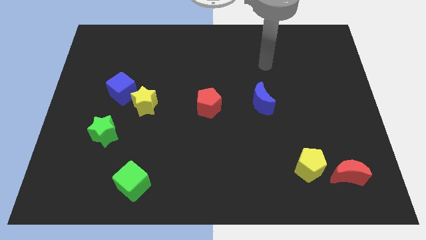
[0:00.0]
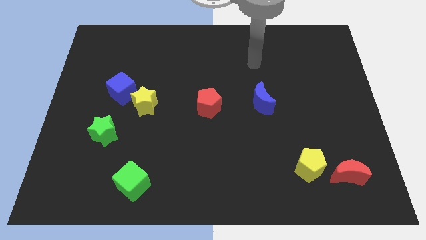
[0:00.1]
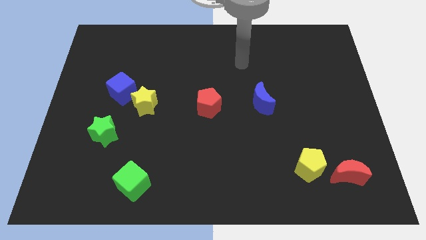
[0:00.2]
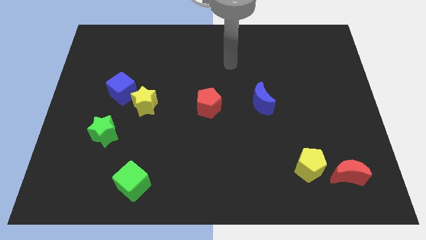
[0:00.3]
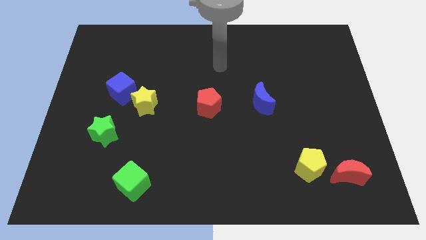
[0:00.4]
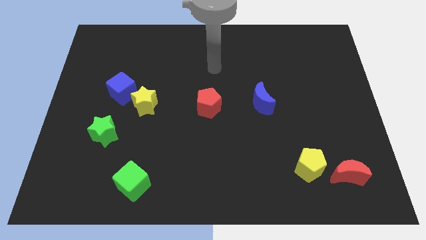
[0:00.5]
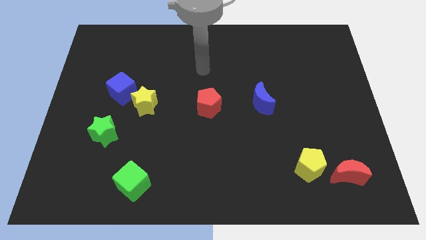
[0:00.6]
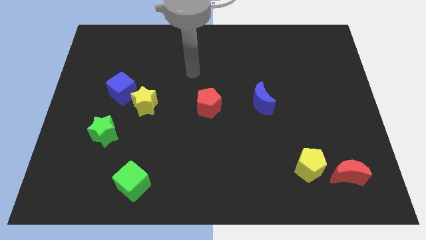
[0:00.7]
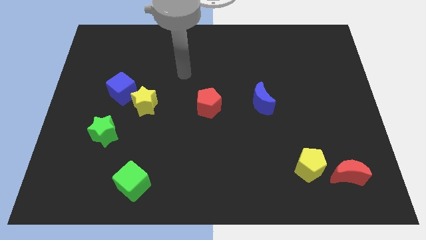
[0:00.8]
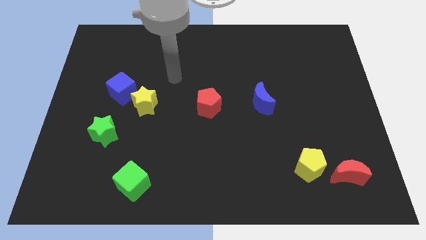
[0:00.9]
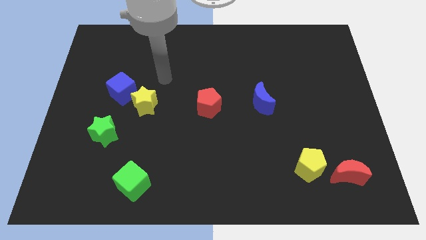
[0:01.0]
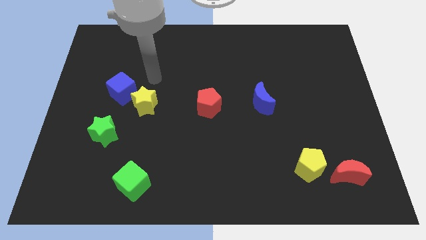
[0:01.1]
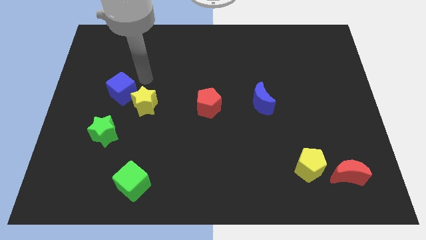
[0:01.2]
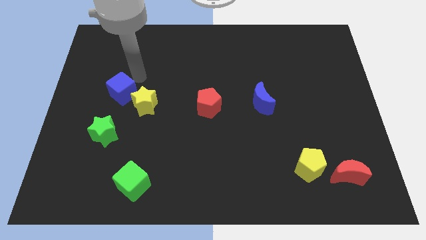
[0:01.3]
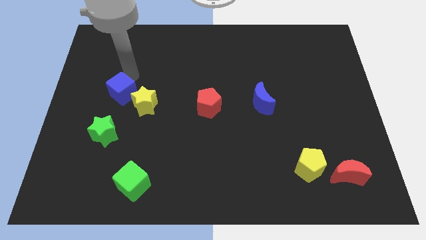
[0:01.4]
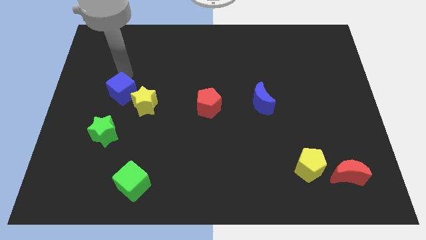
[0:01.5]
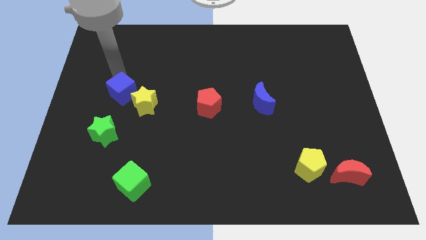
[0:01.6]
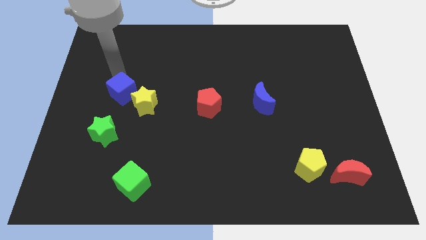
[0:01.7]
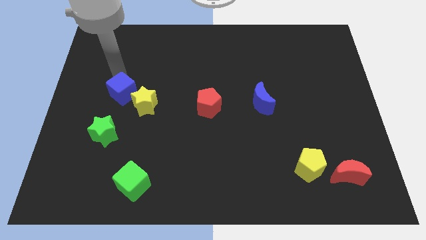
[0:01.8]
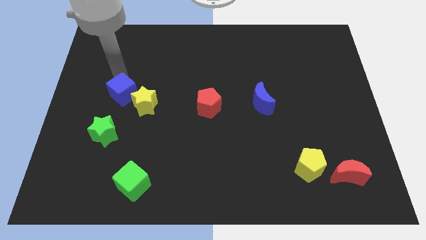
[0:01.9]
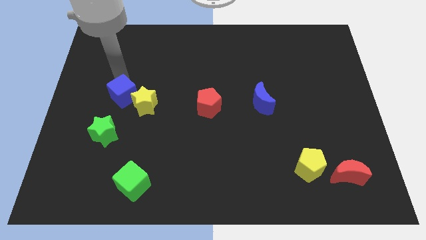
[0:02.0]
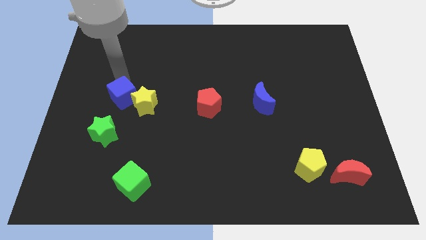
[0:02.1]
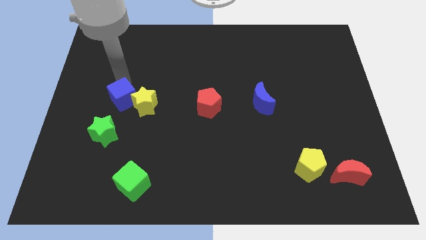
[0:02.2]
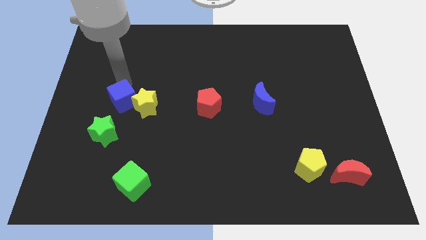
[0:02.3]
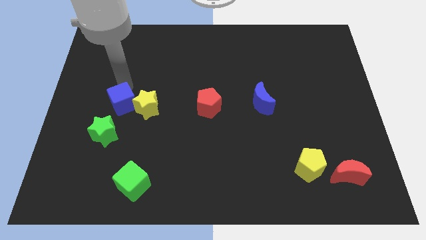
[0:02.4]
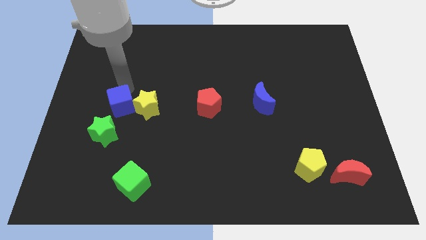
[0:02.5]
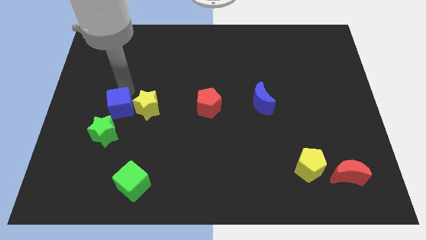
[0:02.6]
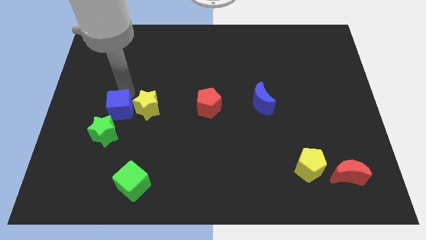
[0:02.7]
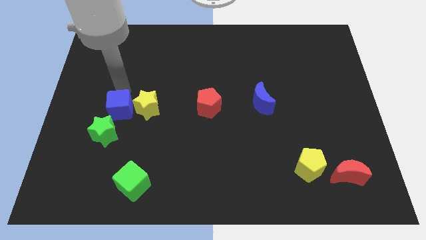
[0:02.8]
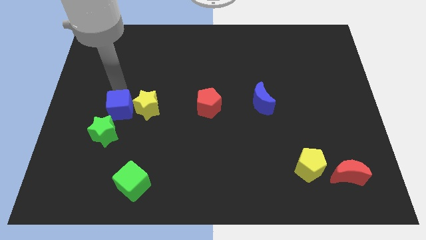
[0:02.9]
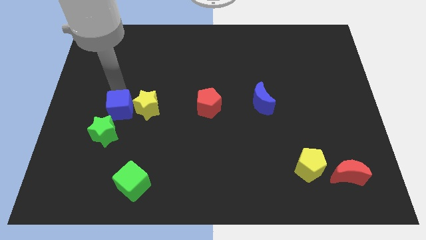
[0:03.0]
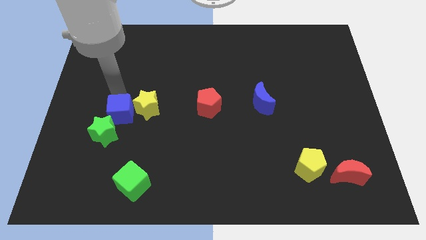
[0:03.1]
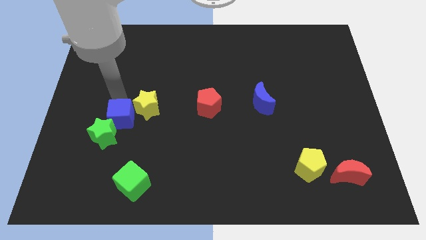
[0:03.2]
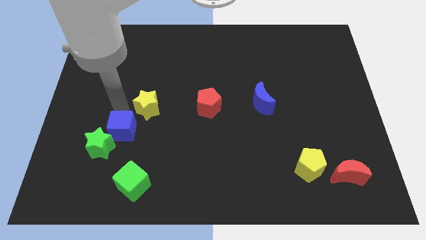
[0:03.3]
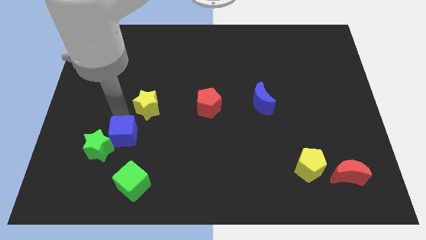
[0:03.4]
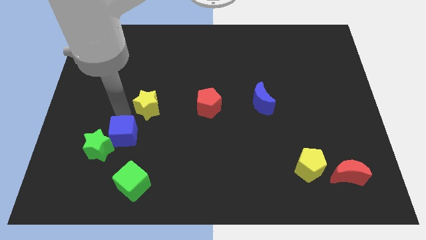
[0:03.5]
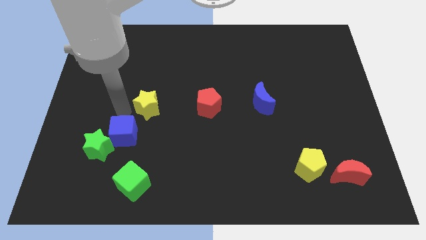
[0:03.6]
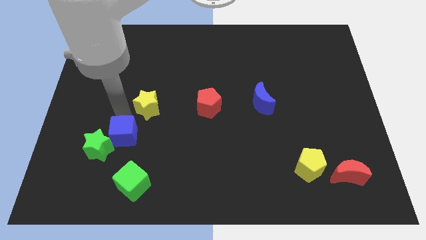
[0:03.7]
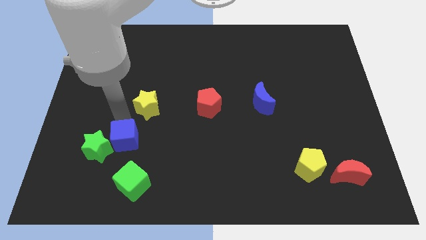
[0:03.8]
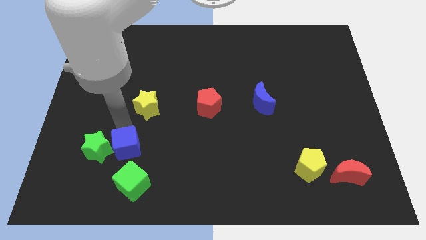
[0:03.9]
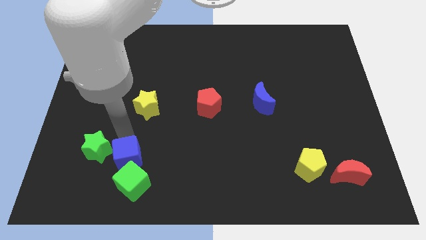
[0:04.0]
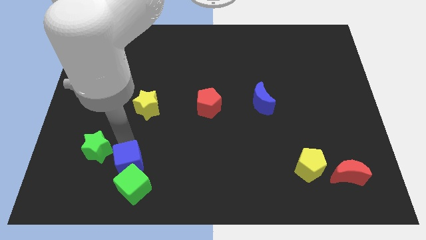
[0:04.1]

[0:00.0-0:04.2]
push the blue cube close to the green cube

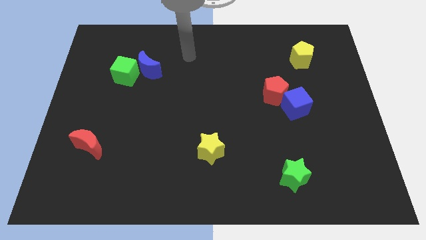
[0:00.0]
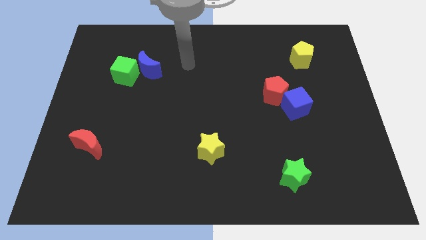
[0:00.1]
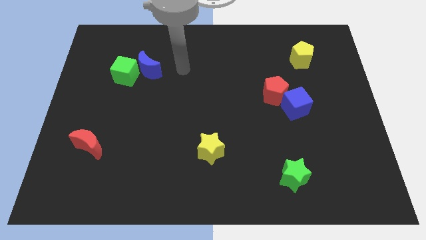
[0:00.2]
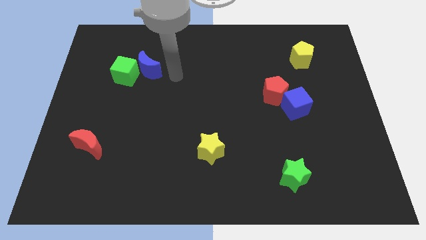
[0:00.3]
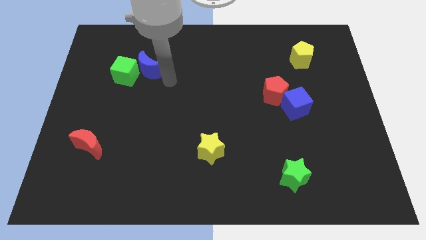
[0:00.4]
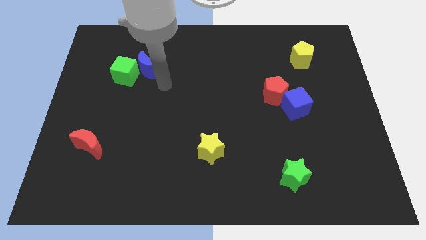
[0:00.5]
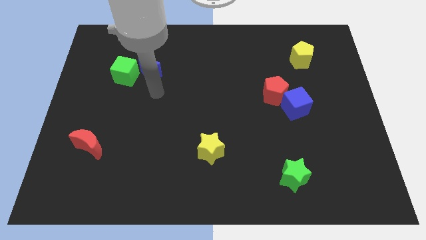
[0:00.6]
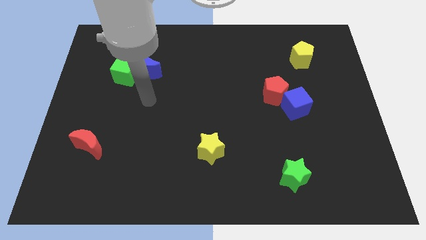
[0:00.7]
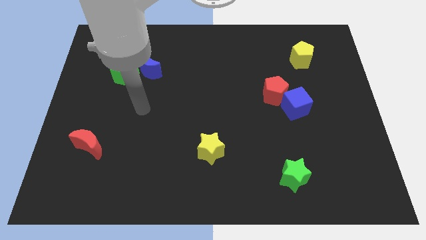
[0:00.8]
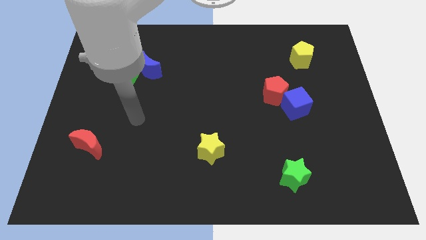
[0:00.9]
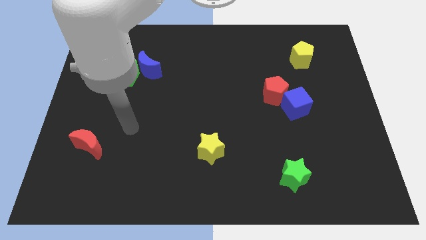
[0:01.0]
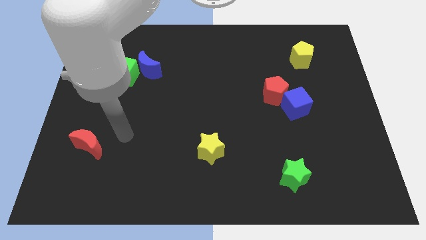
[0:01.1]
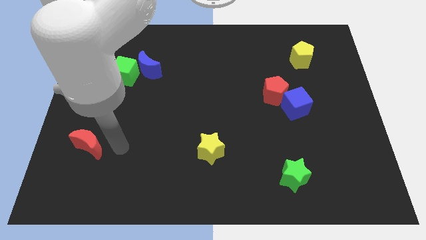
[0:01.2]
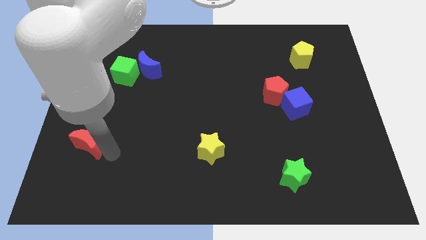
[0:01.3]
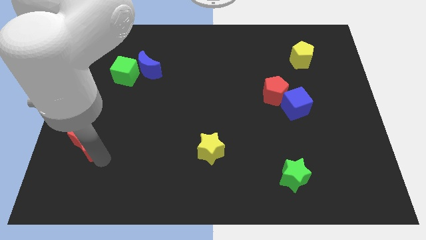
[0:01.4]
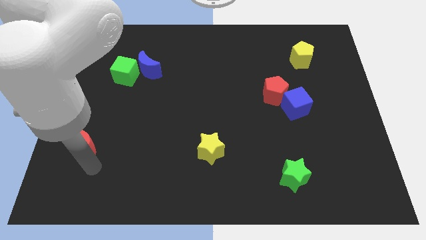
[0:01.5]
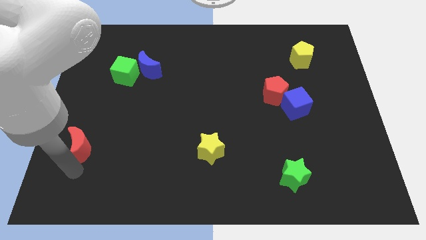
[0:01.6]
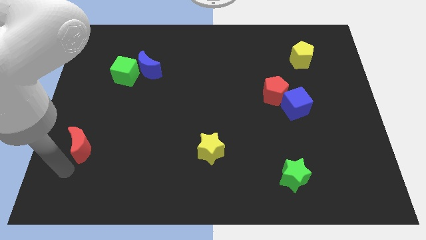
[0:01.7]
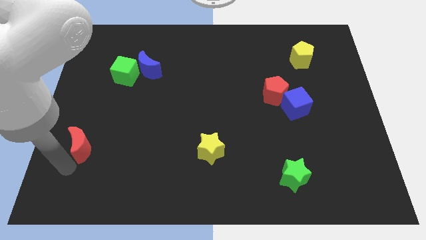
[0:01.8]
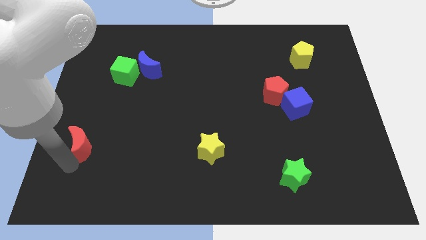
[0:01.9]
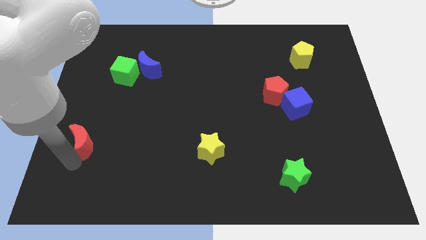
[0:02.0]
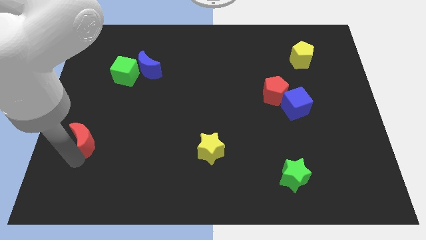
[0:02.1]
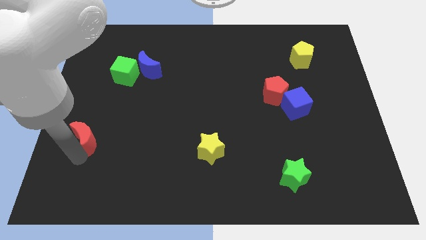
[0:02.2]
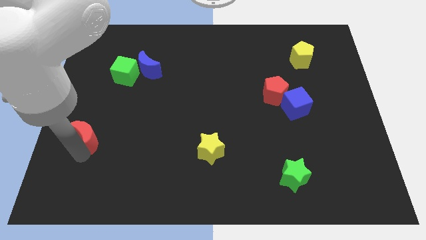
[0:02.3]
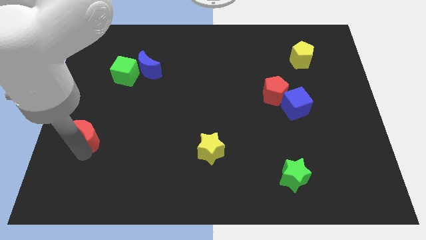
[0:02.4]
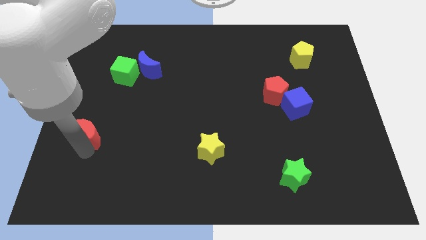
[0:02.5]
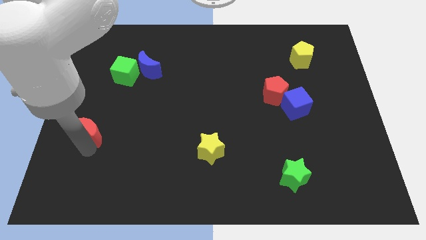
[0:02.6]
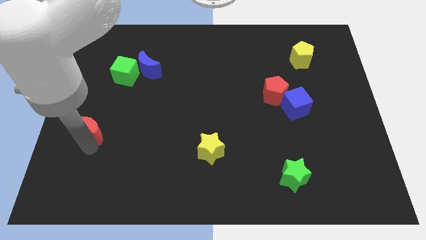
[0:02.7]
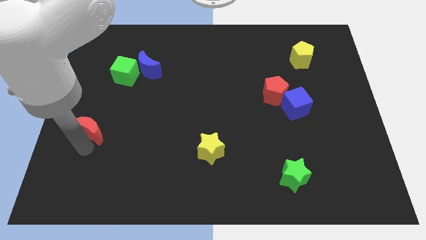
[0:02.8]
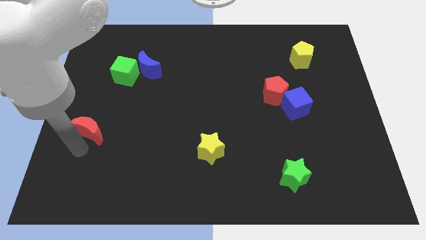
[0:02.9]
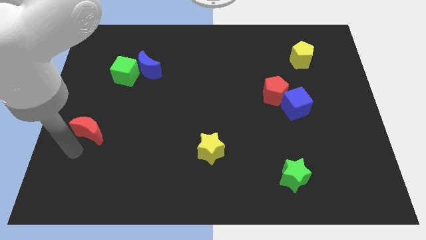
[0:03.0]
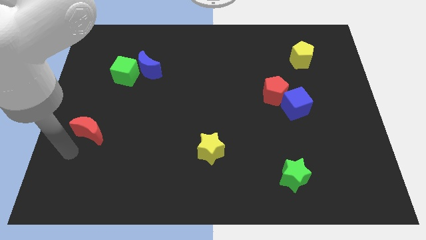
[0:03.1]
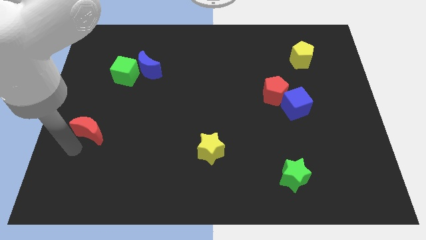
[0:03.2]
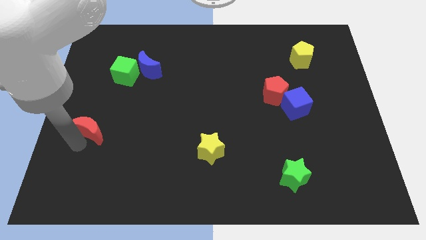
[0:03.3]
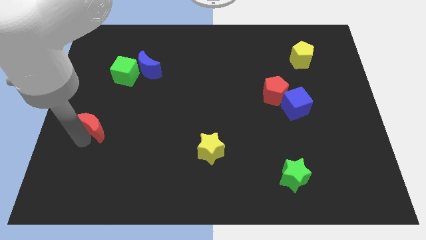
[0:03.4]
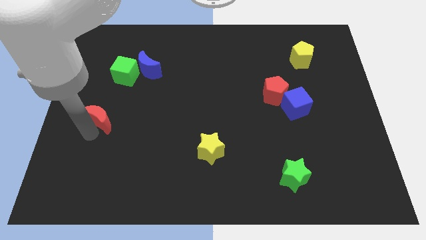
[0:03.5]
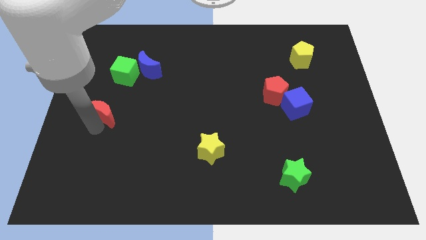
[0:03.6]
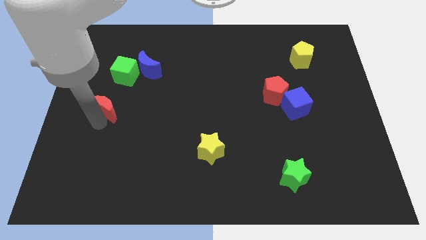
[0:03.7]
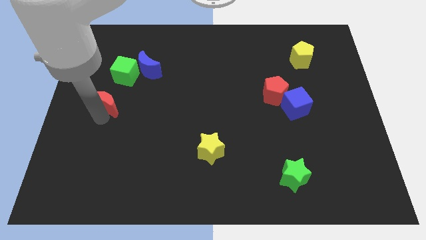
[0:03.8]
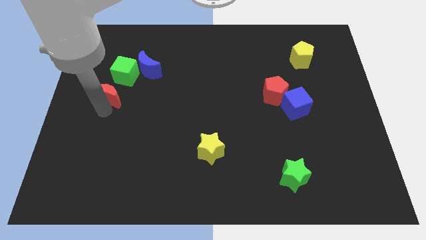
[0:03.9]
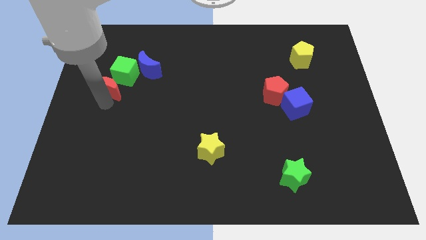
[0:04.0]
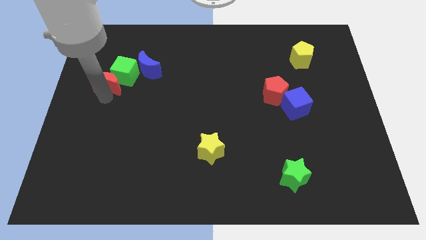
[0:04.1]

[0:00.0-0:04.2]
put the red moon close to the green cube
